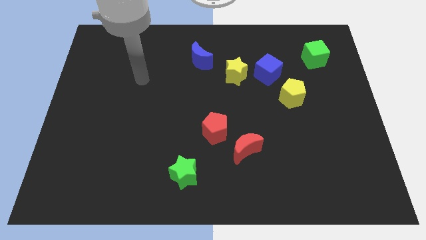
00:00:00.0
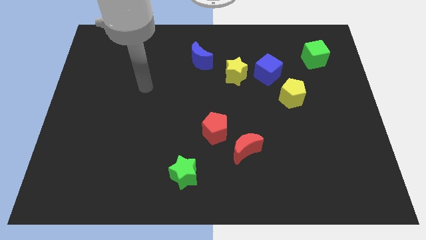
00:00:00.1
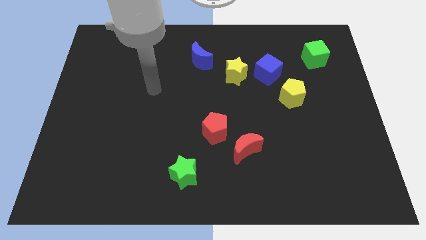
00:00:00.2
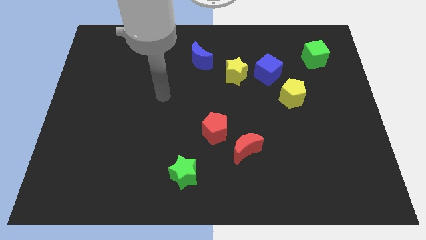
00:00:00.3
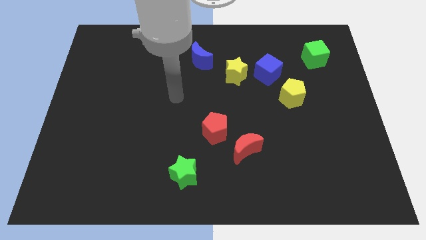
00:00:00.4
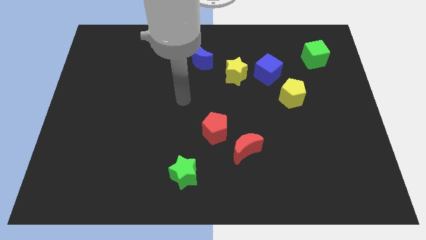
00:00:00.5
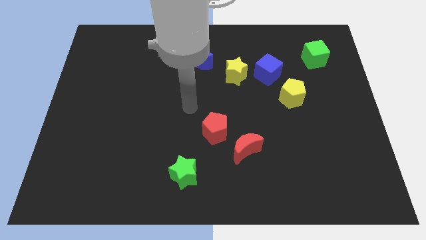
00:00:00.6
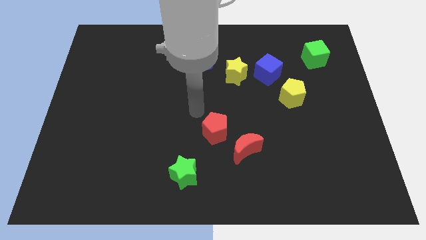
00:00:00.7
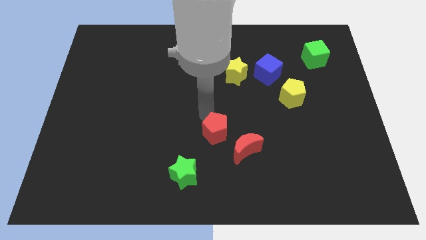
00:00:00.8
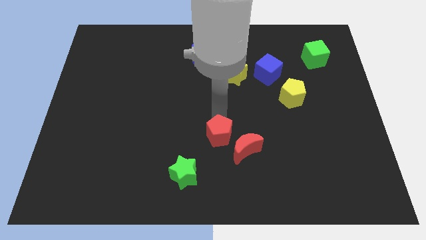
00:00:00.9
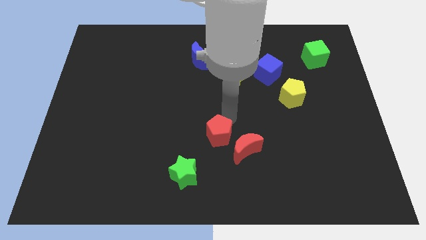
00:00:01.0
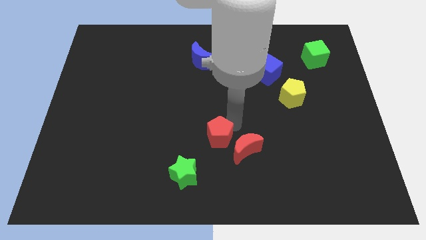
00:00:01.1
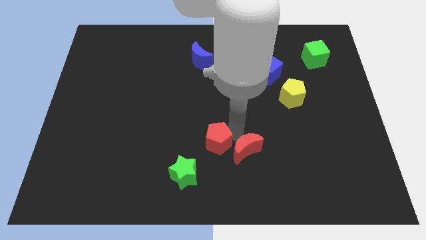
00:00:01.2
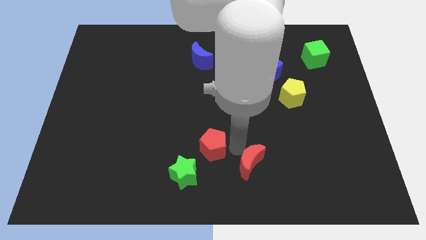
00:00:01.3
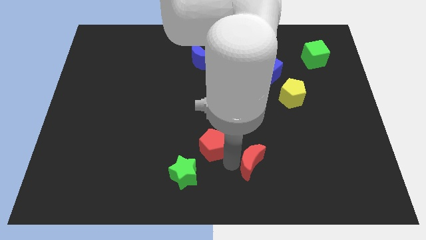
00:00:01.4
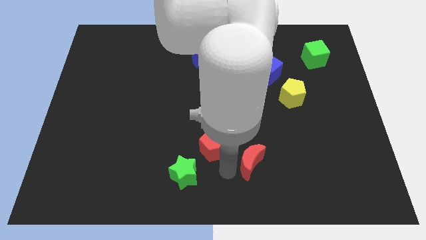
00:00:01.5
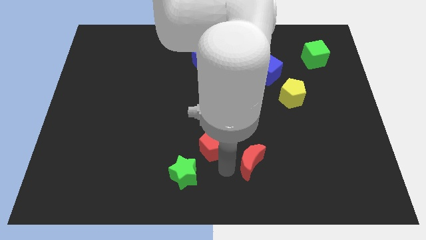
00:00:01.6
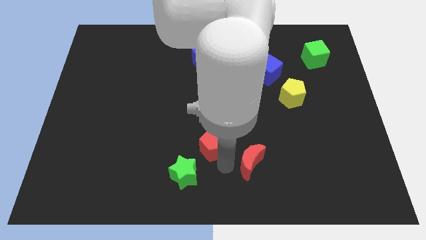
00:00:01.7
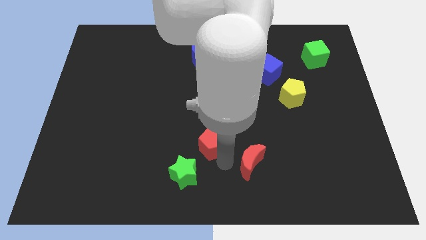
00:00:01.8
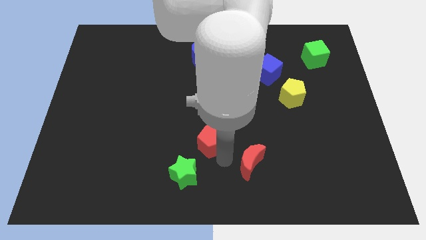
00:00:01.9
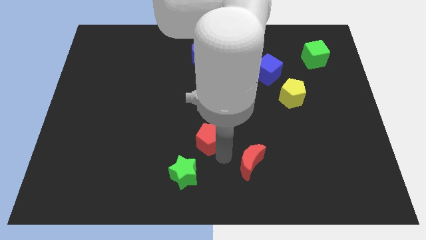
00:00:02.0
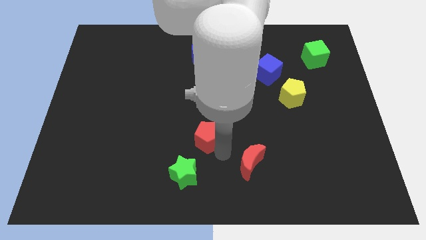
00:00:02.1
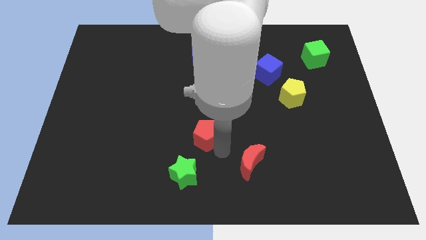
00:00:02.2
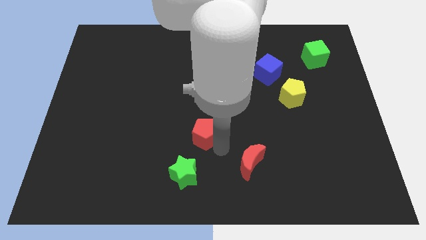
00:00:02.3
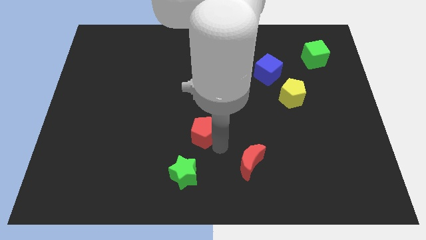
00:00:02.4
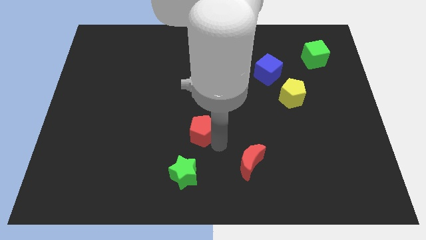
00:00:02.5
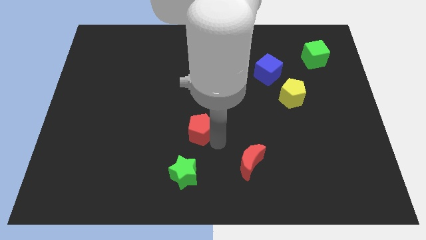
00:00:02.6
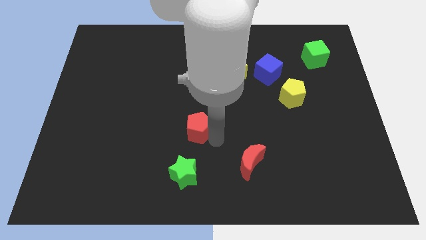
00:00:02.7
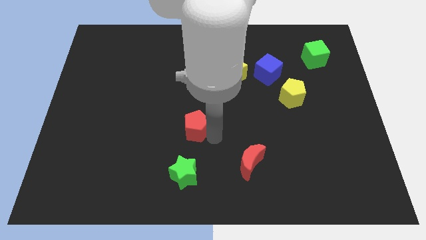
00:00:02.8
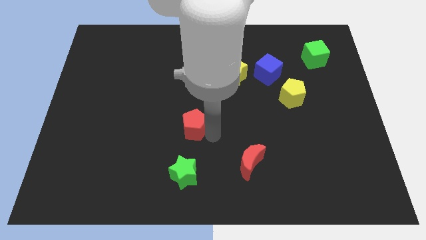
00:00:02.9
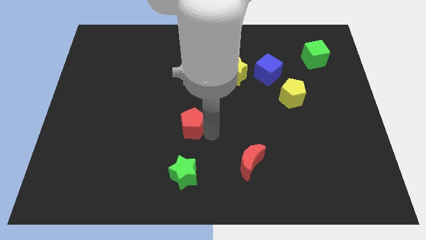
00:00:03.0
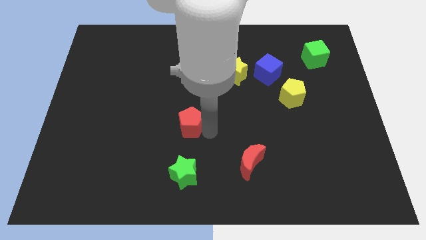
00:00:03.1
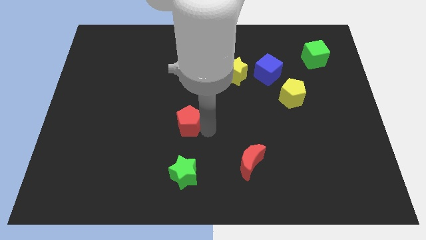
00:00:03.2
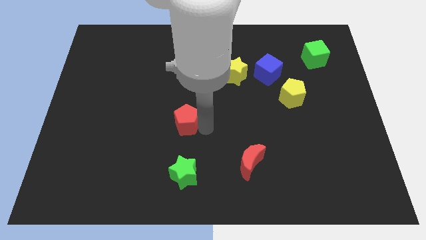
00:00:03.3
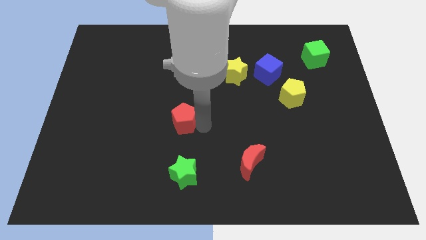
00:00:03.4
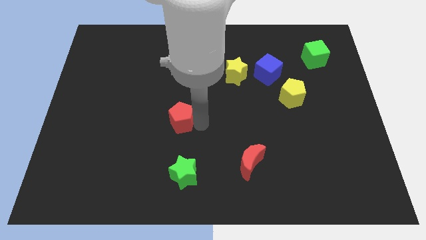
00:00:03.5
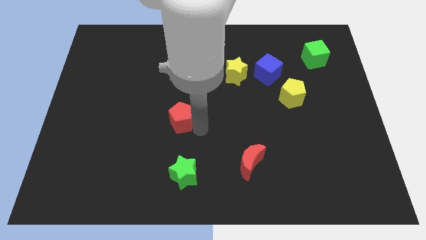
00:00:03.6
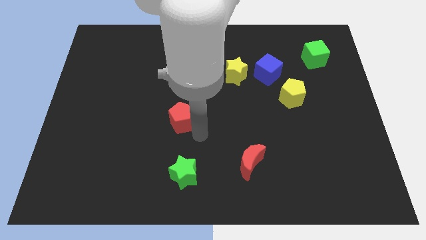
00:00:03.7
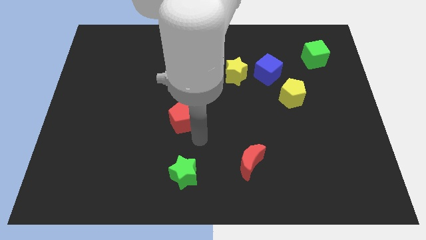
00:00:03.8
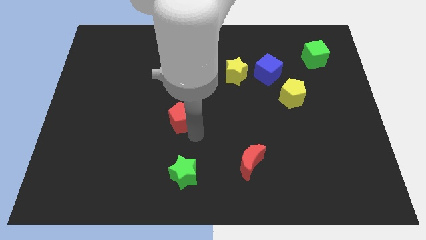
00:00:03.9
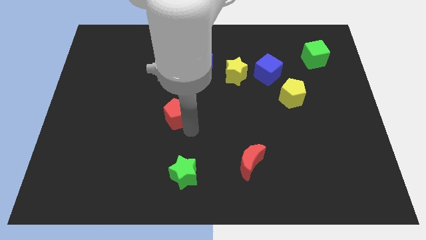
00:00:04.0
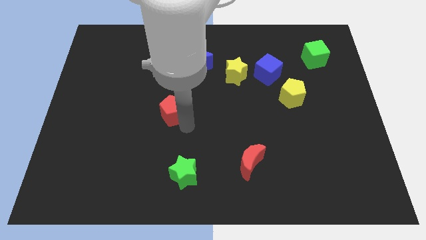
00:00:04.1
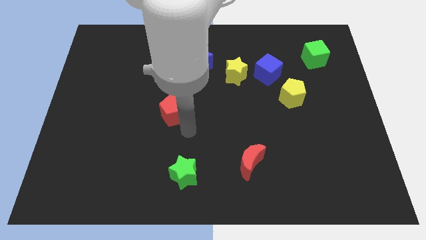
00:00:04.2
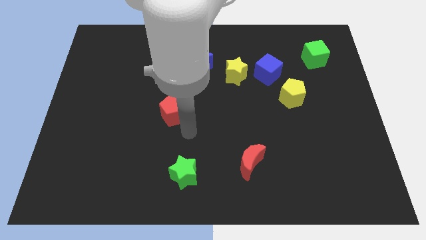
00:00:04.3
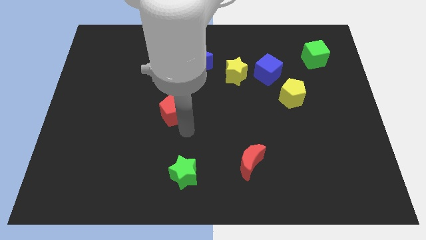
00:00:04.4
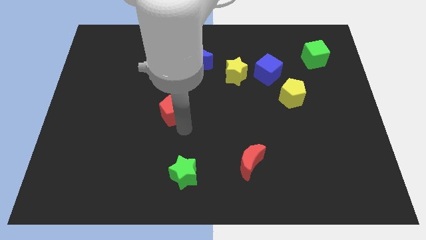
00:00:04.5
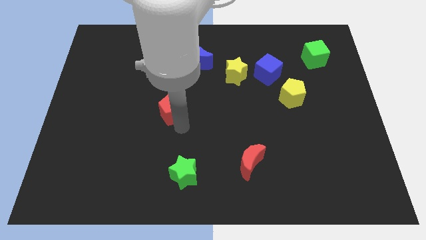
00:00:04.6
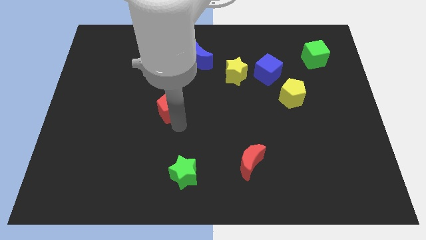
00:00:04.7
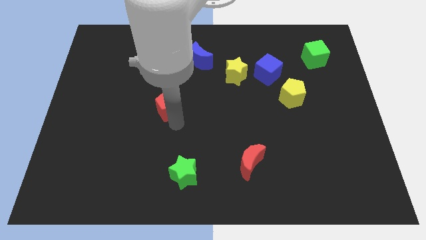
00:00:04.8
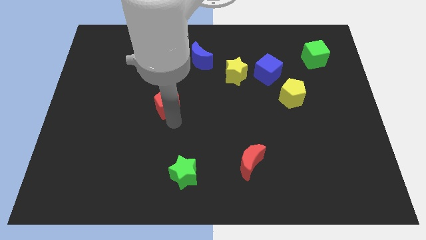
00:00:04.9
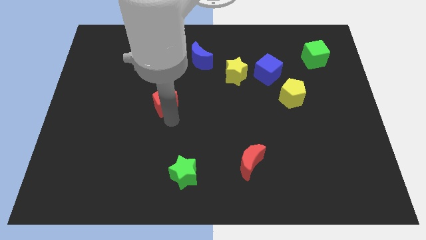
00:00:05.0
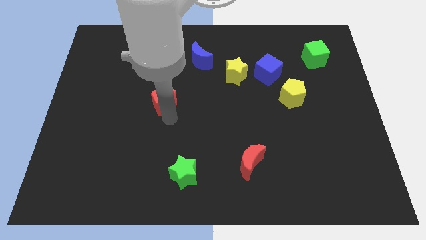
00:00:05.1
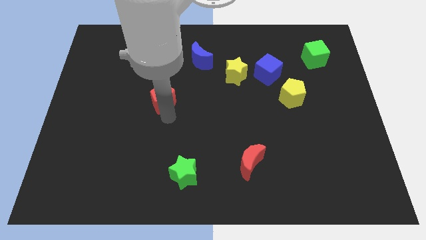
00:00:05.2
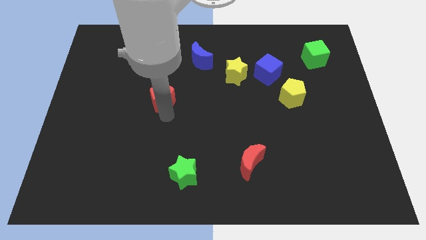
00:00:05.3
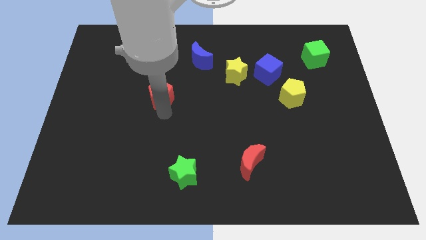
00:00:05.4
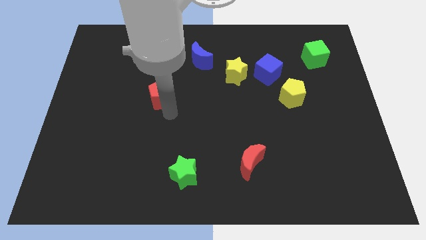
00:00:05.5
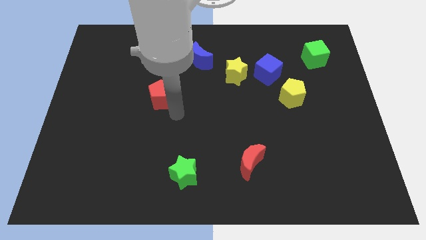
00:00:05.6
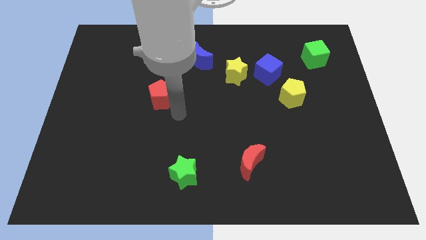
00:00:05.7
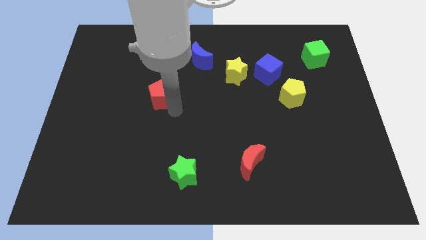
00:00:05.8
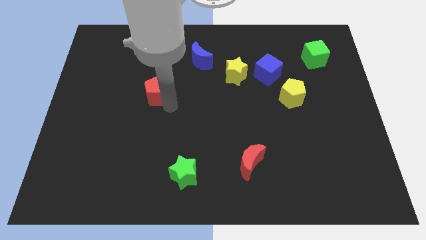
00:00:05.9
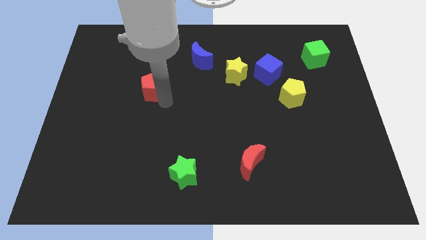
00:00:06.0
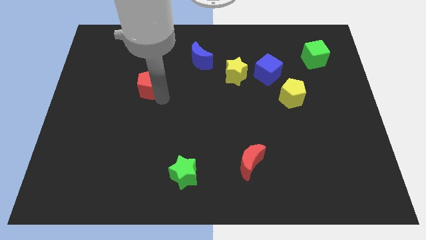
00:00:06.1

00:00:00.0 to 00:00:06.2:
slide the red pentagon up and to the left

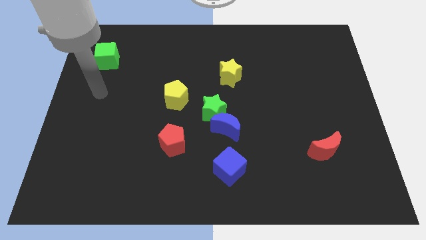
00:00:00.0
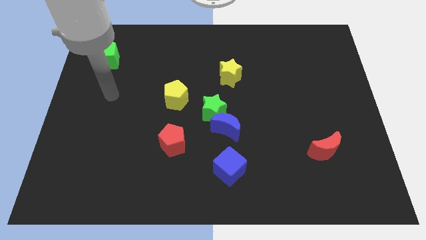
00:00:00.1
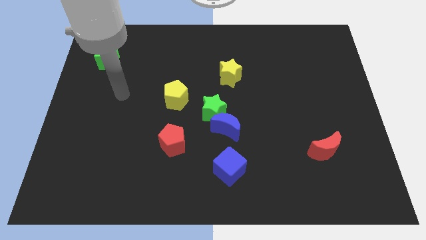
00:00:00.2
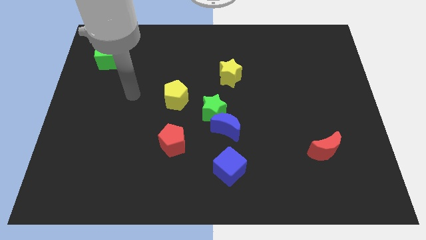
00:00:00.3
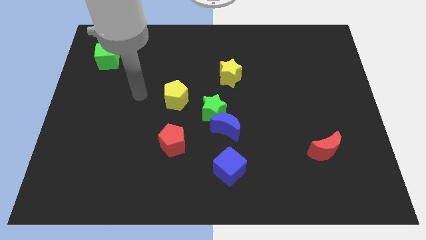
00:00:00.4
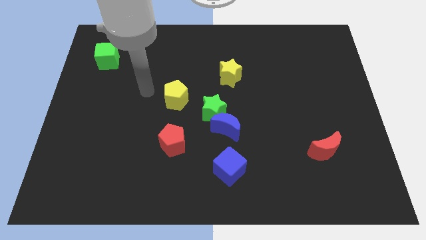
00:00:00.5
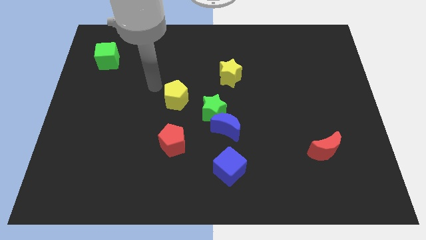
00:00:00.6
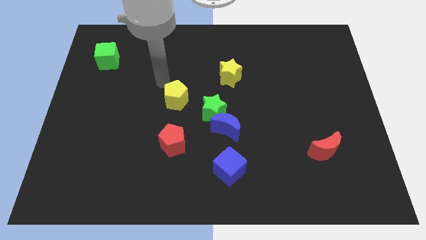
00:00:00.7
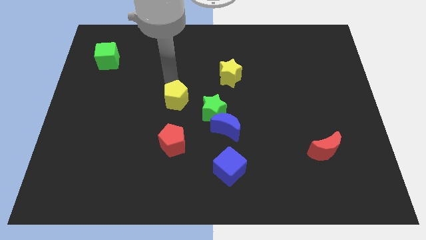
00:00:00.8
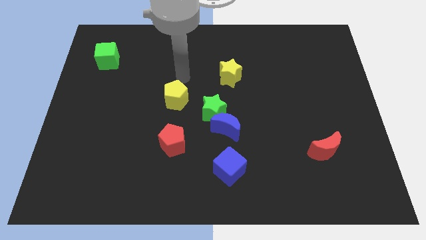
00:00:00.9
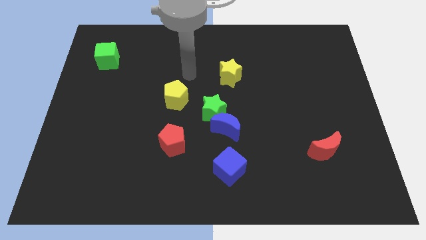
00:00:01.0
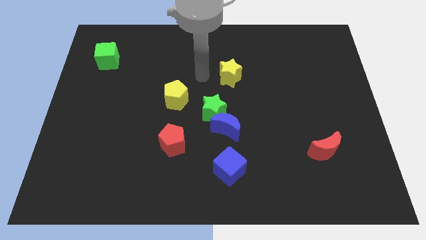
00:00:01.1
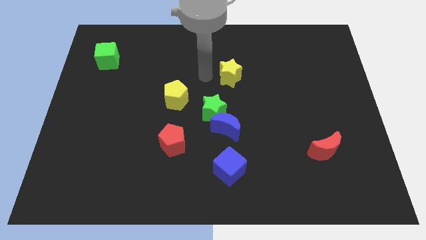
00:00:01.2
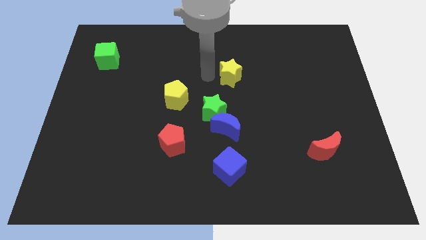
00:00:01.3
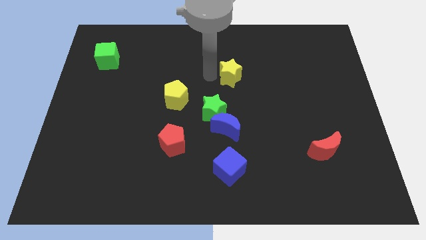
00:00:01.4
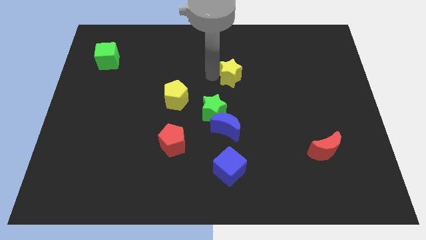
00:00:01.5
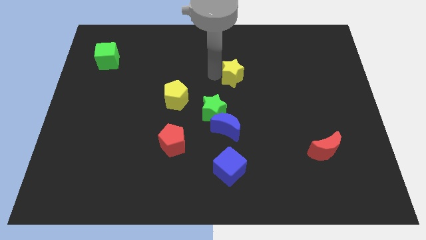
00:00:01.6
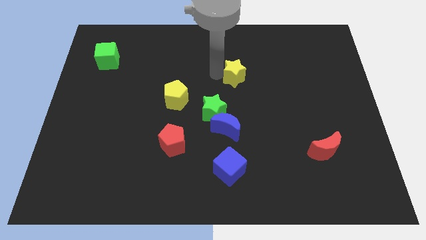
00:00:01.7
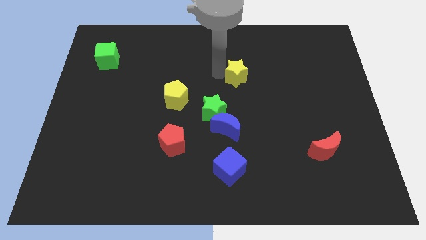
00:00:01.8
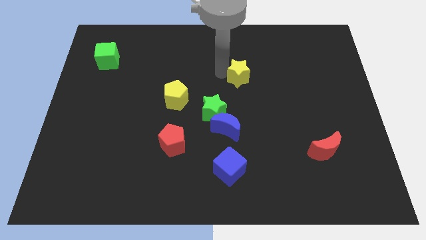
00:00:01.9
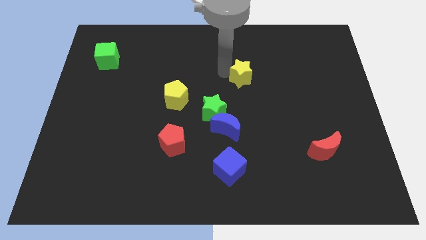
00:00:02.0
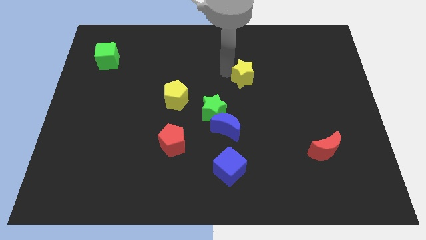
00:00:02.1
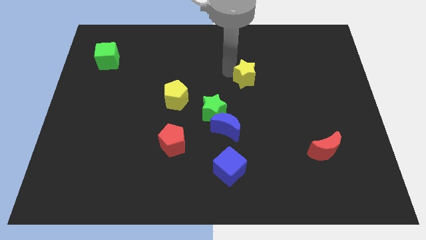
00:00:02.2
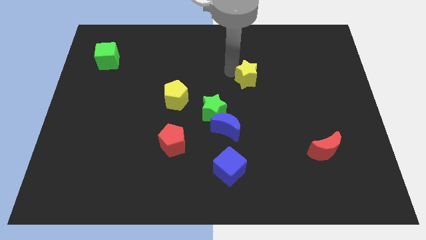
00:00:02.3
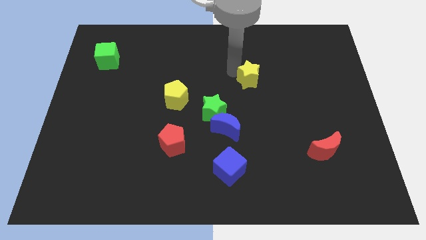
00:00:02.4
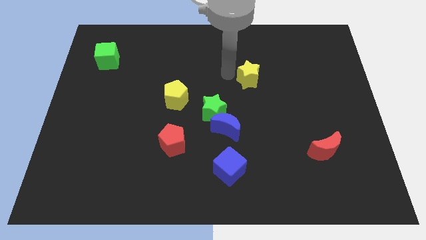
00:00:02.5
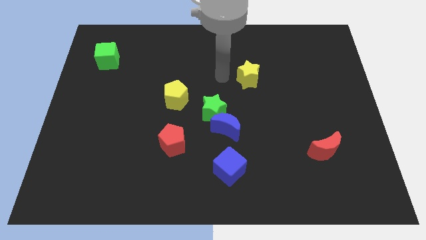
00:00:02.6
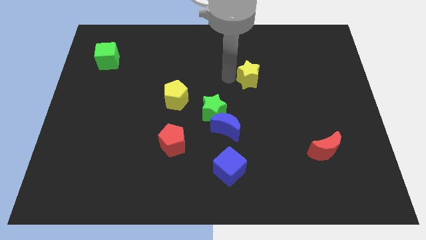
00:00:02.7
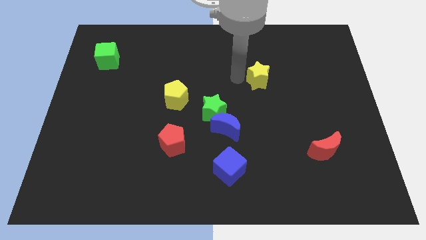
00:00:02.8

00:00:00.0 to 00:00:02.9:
slightly move the yellow star to the right
